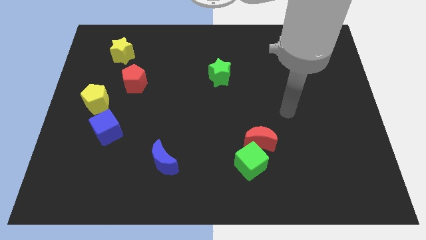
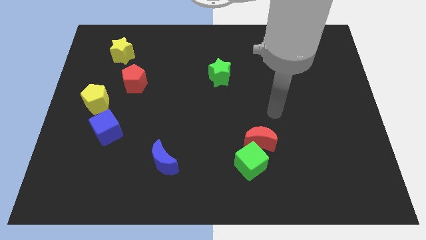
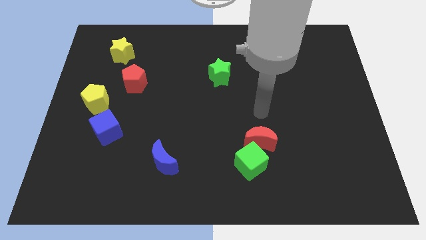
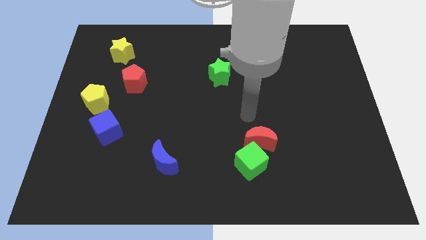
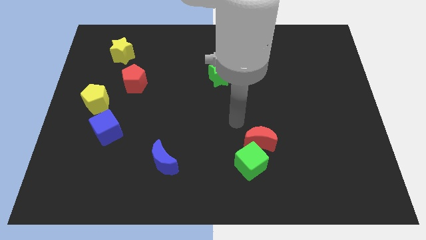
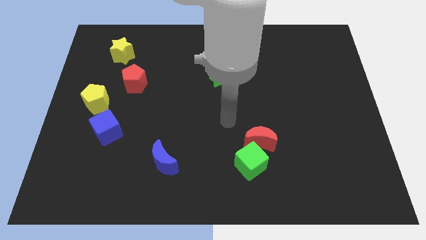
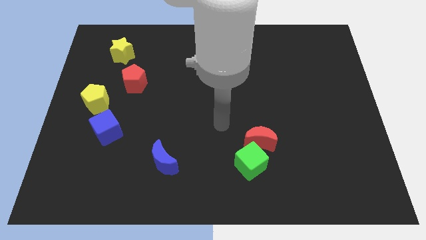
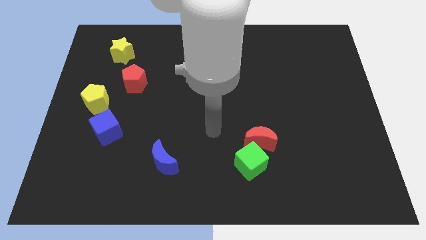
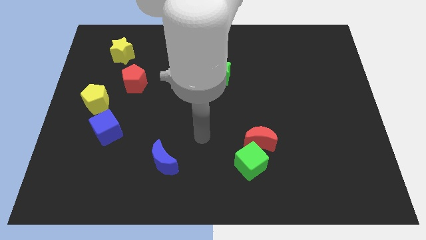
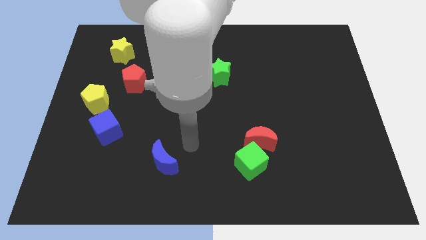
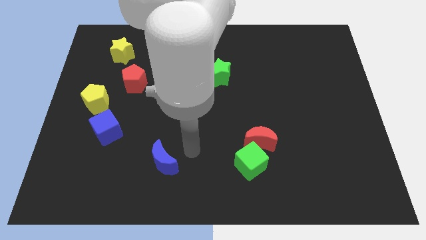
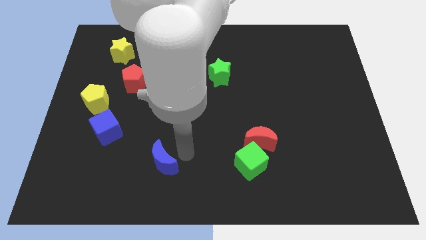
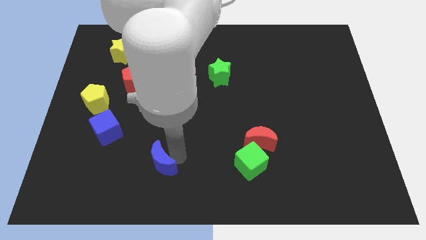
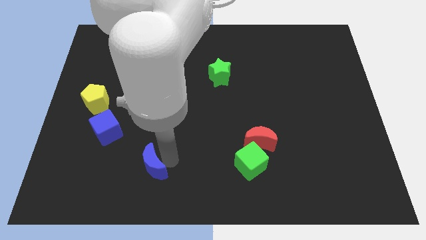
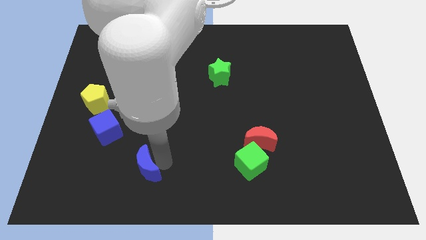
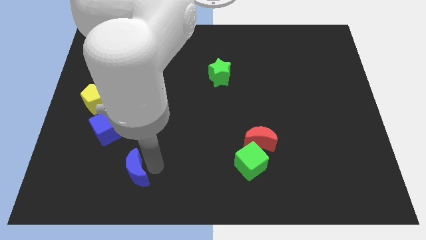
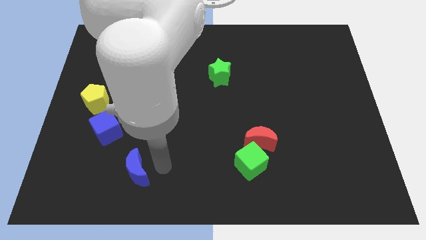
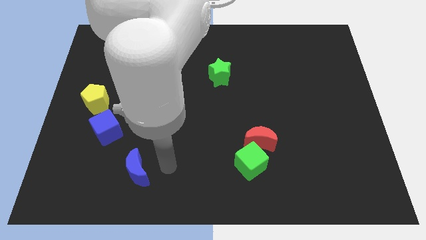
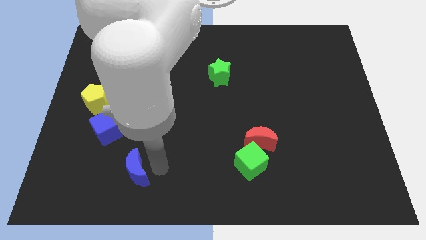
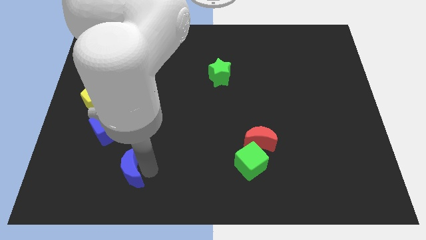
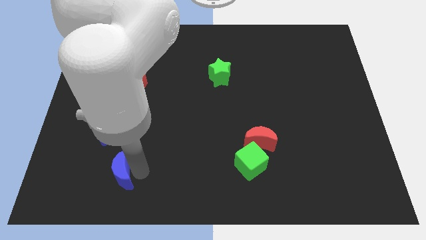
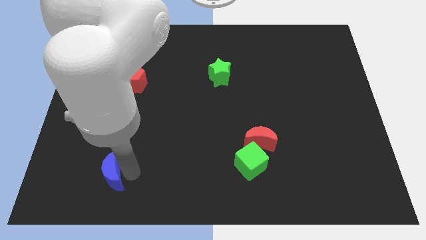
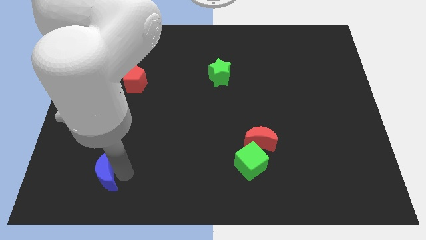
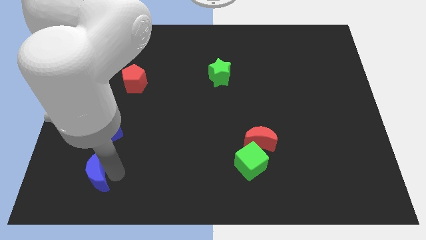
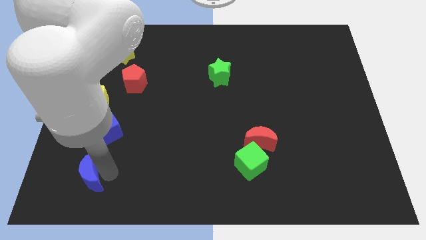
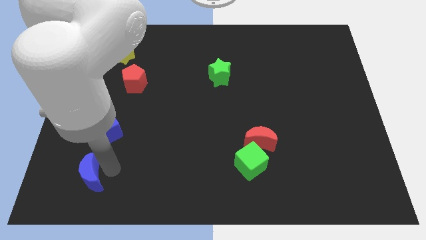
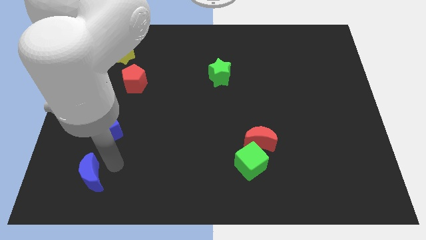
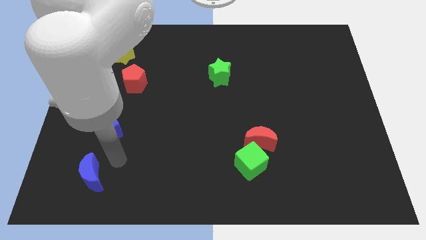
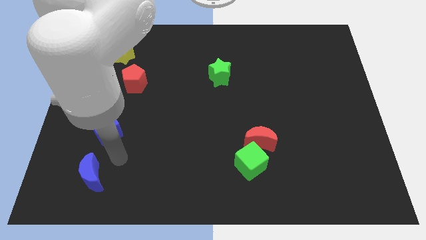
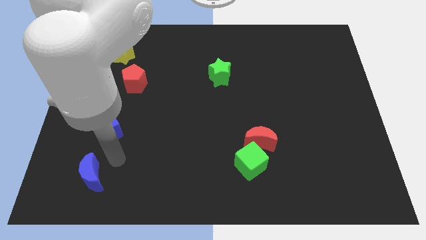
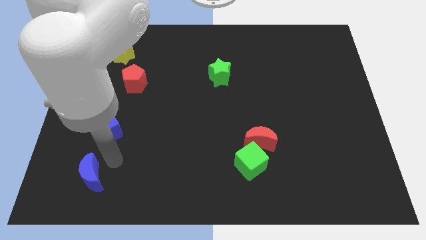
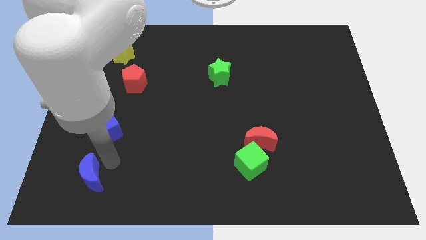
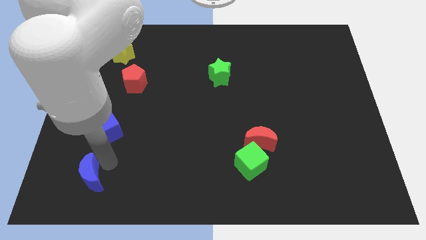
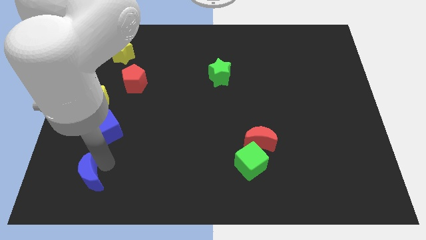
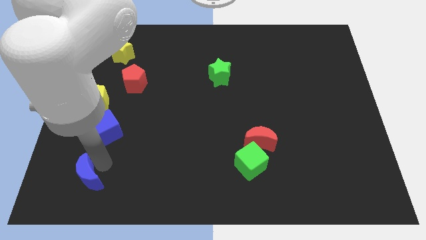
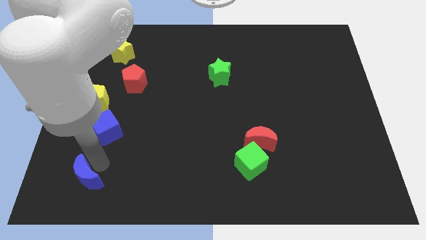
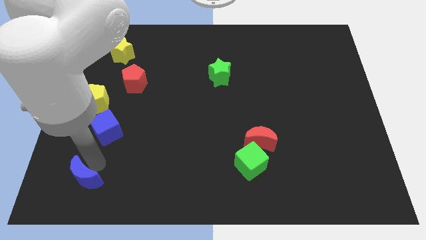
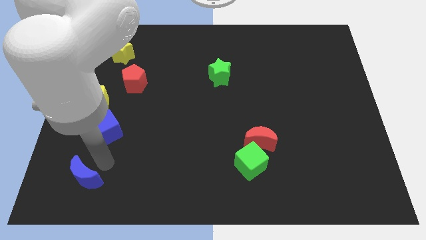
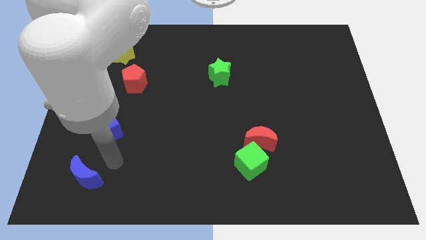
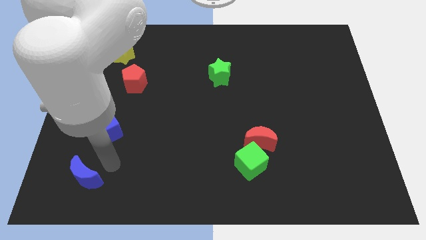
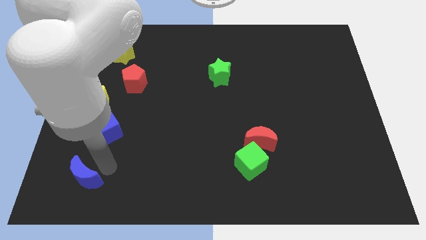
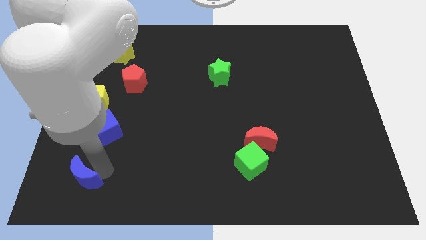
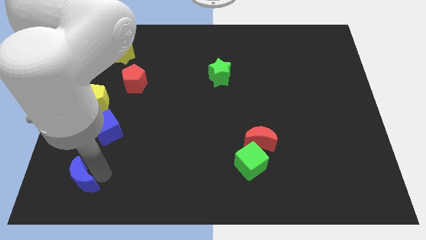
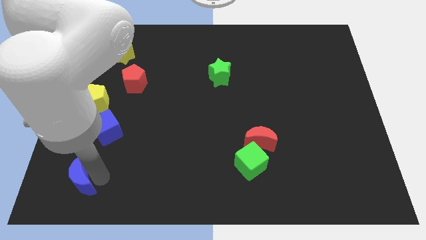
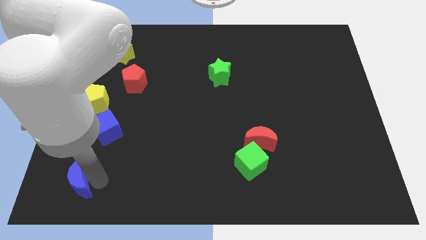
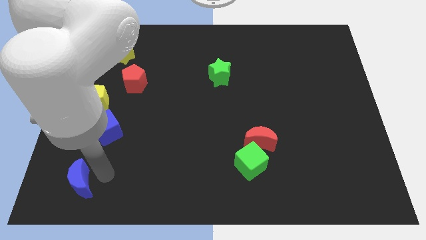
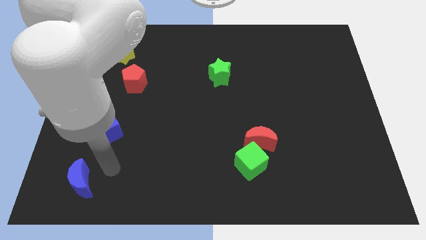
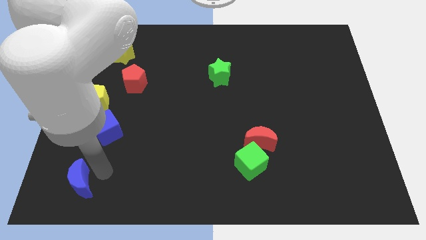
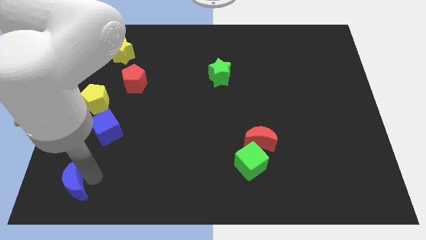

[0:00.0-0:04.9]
put the blue moon to the lower left corner

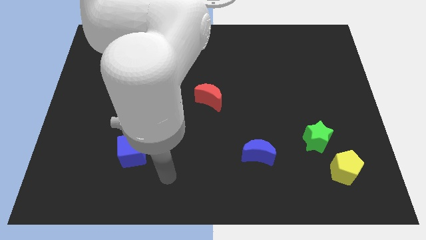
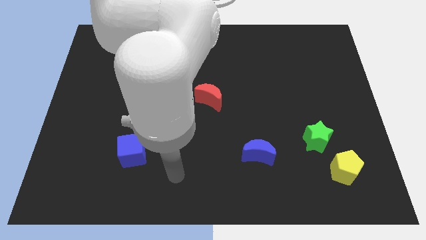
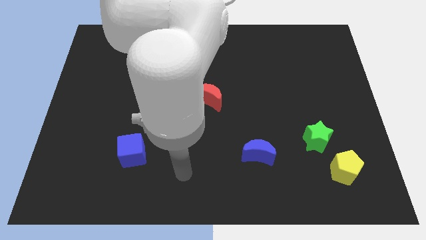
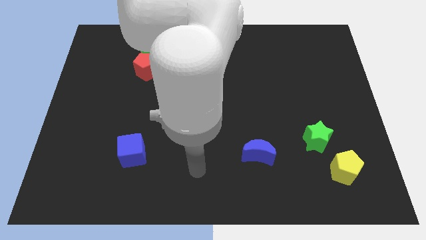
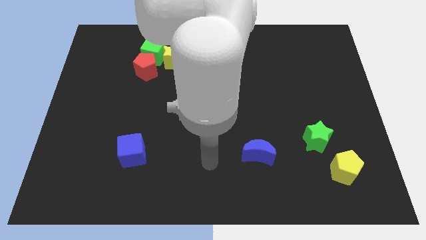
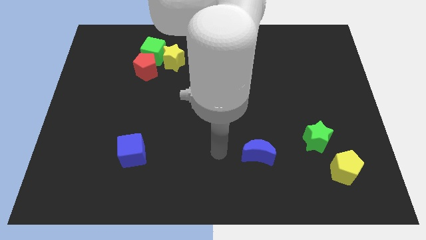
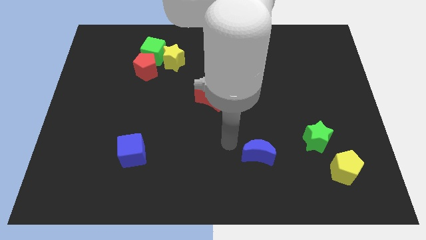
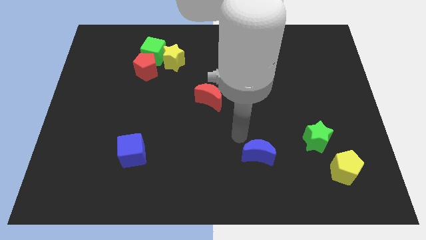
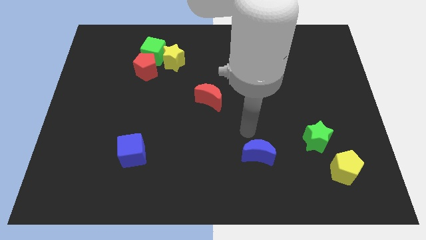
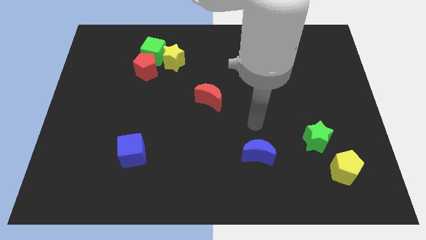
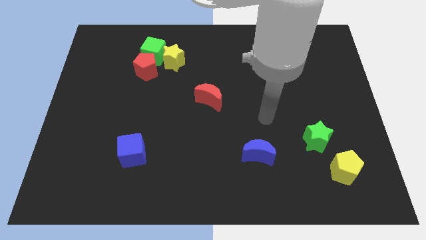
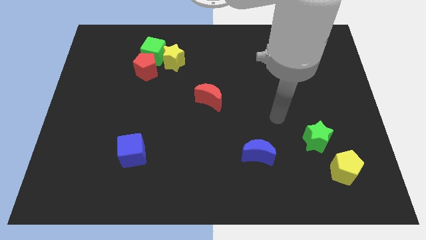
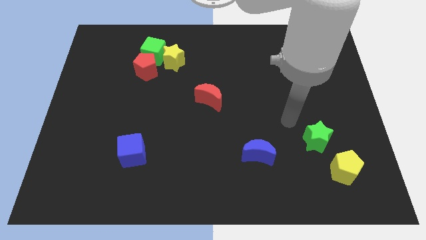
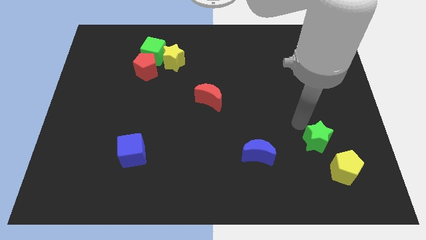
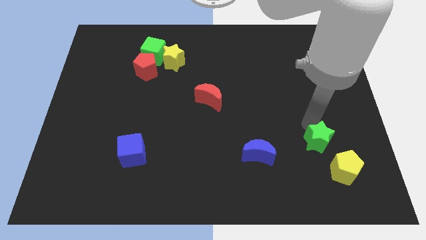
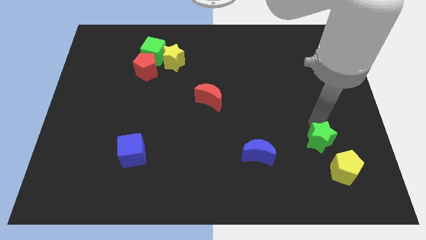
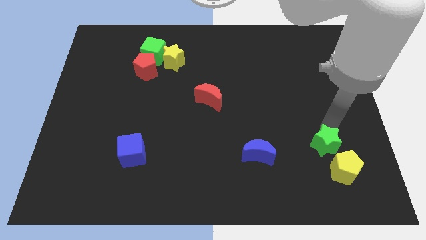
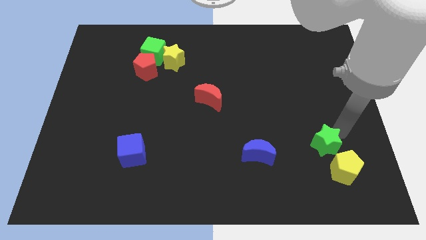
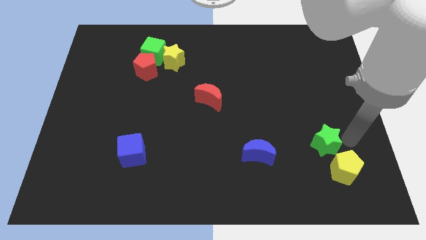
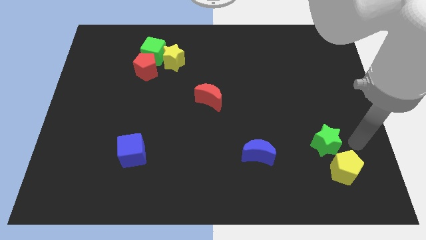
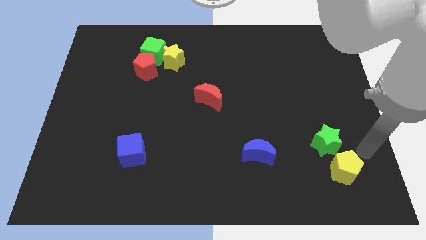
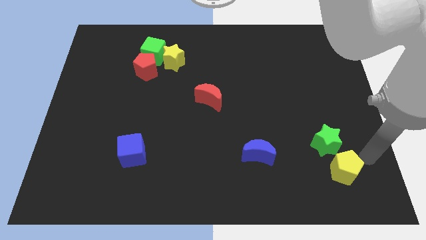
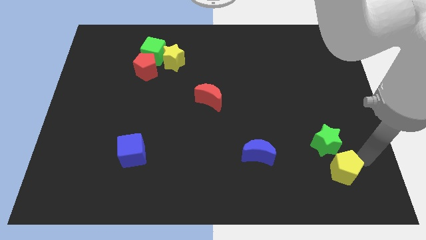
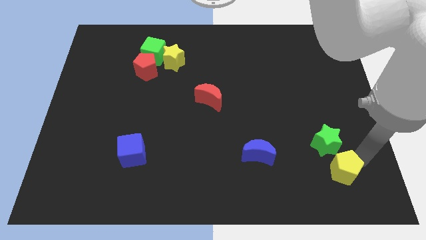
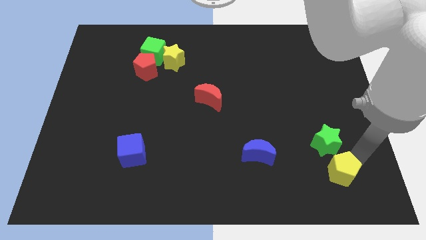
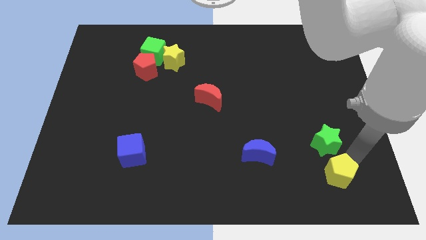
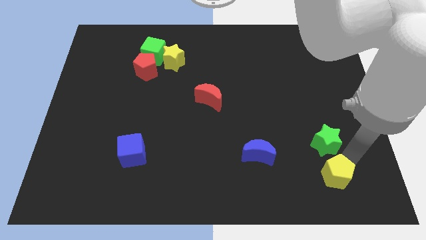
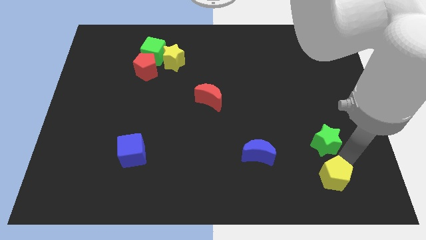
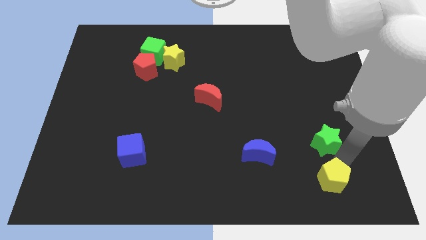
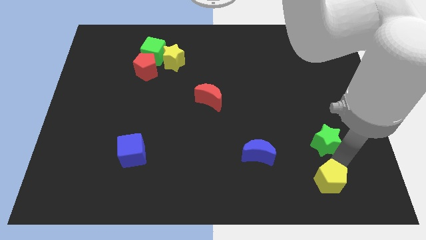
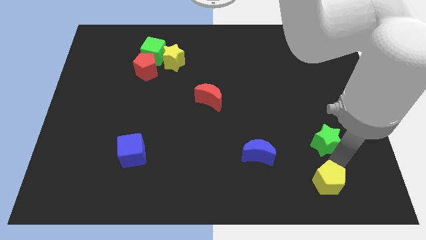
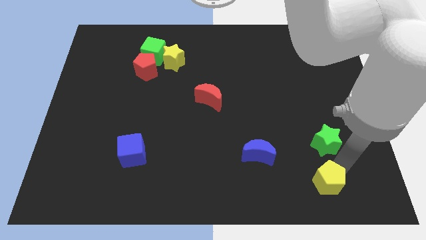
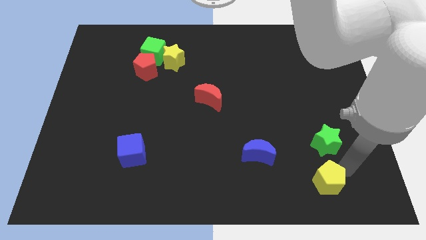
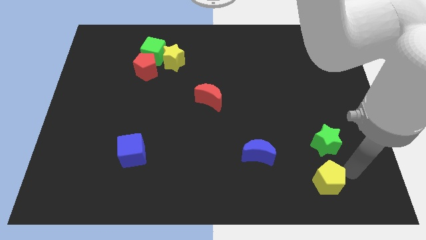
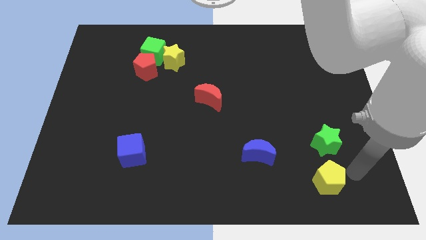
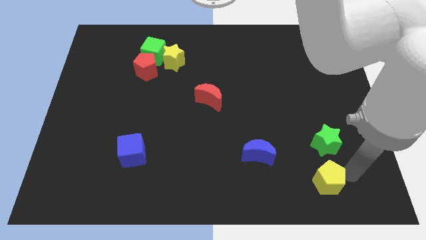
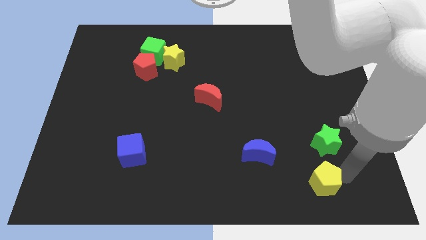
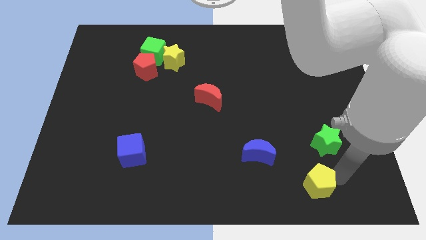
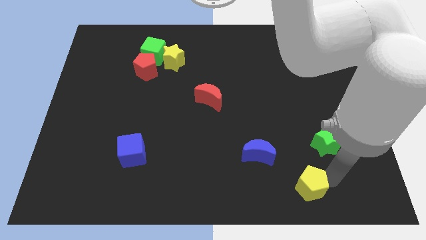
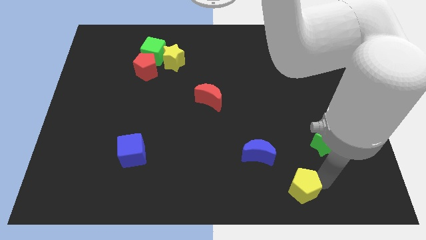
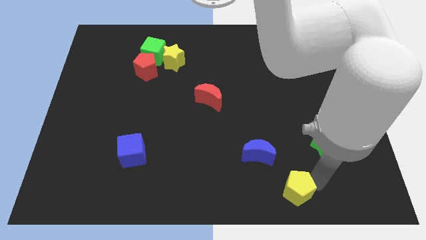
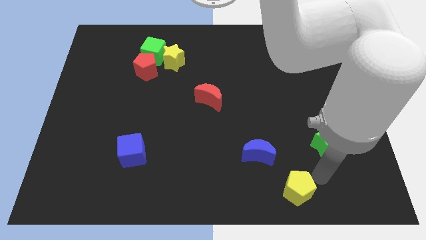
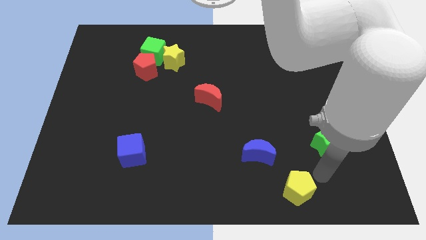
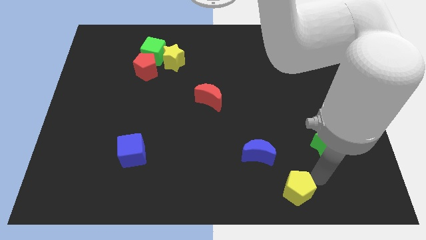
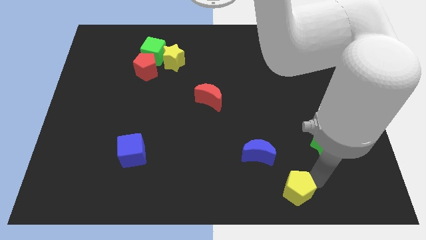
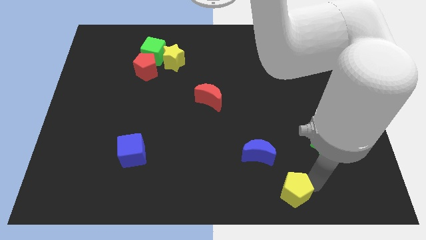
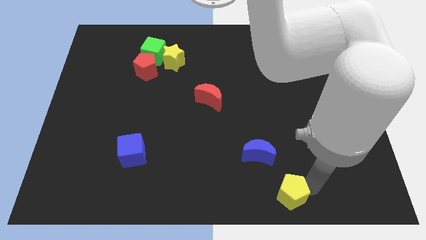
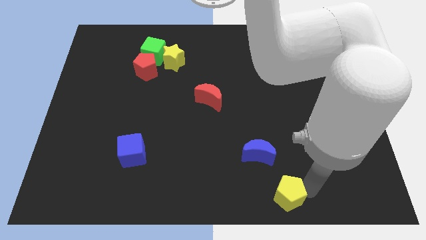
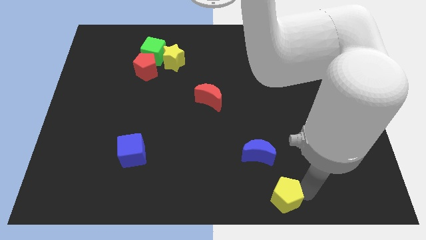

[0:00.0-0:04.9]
put the yellow pentagon to the bottom side
